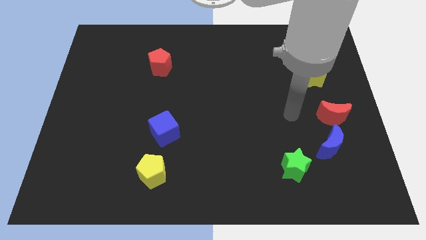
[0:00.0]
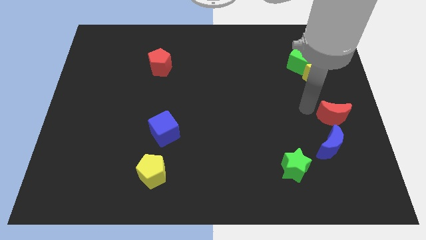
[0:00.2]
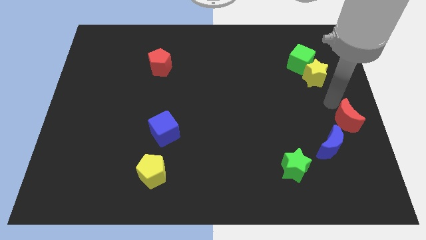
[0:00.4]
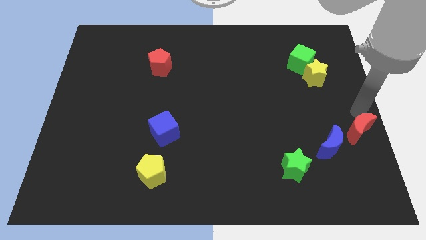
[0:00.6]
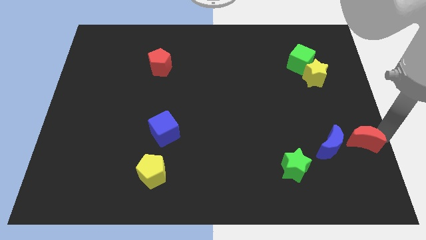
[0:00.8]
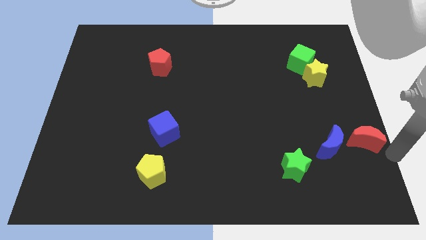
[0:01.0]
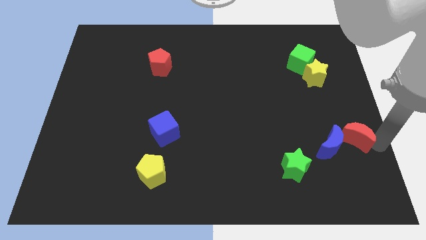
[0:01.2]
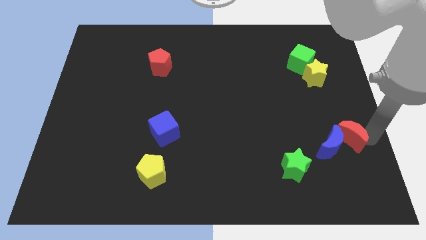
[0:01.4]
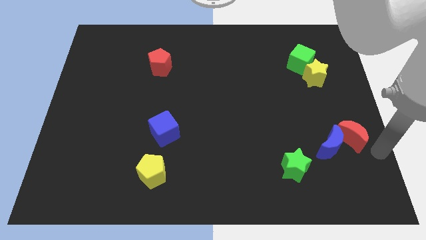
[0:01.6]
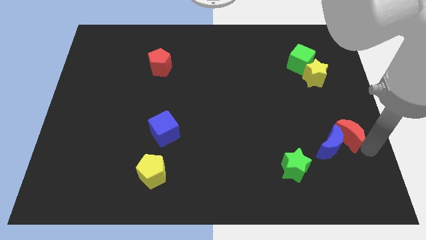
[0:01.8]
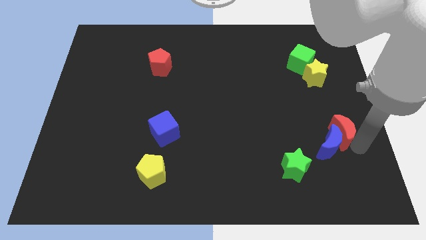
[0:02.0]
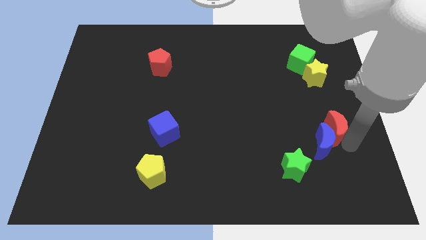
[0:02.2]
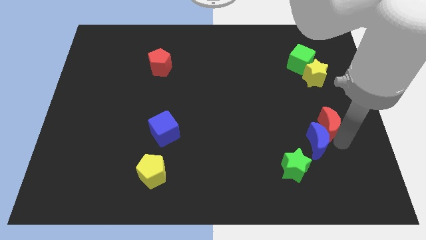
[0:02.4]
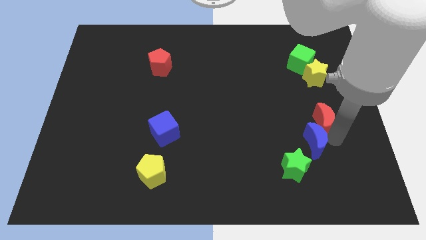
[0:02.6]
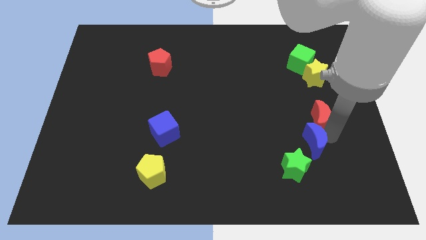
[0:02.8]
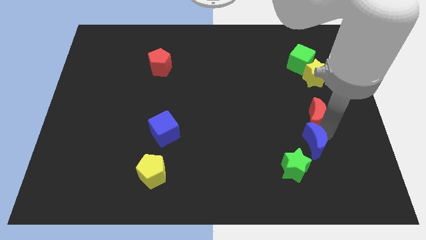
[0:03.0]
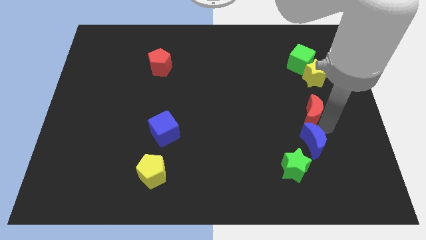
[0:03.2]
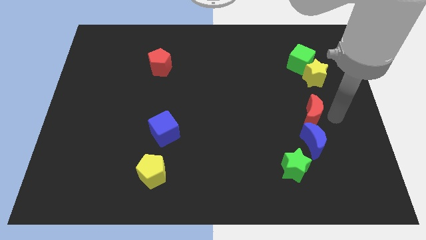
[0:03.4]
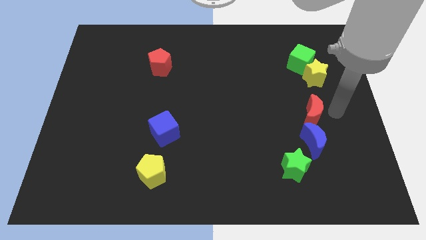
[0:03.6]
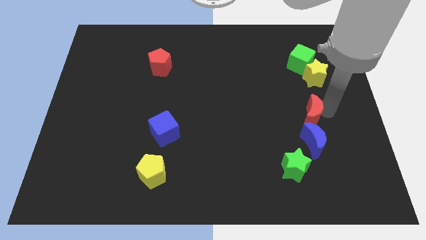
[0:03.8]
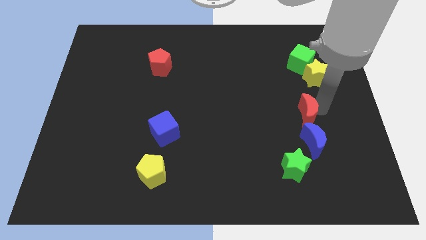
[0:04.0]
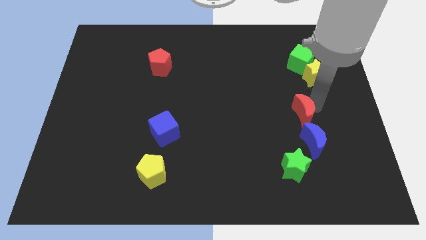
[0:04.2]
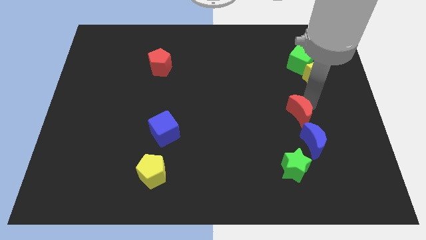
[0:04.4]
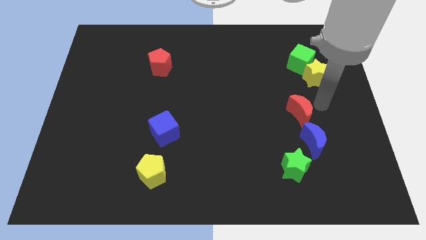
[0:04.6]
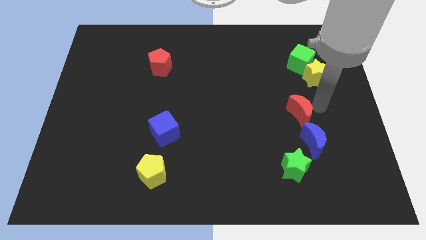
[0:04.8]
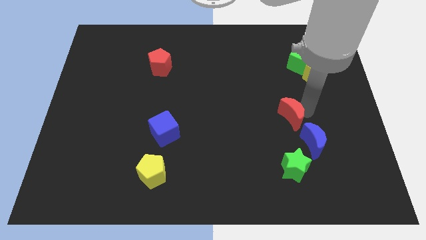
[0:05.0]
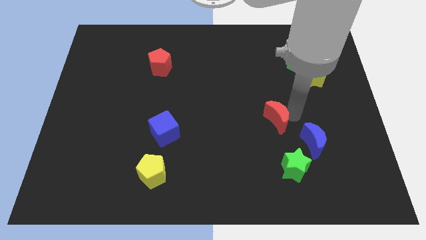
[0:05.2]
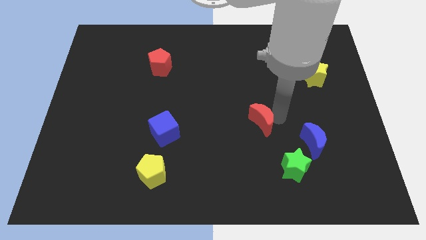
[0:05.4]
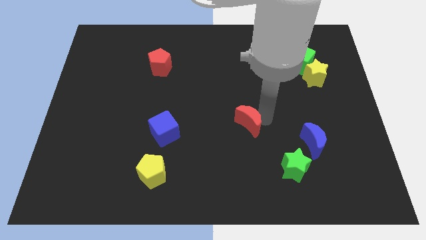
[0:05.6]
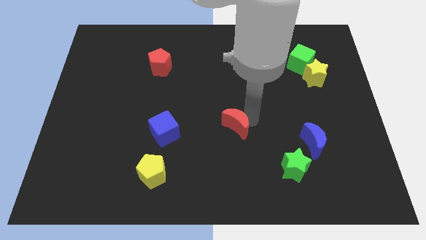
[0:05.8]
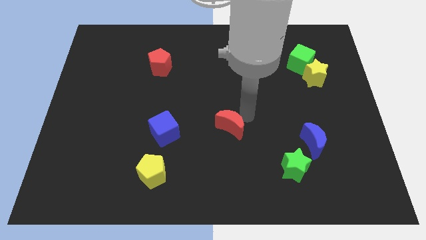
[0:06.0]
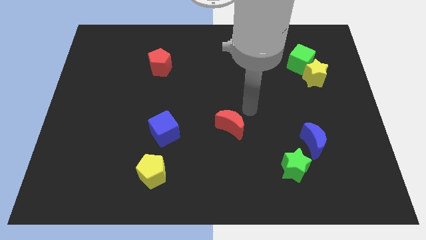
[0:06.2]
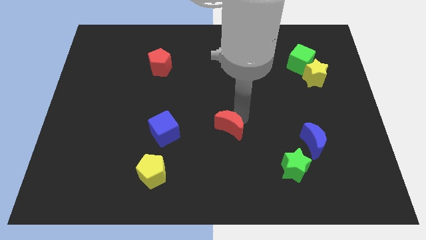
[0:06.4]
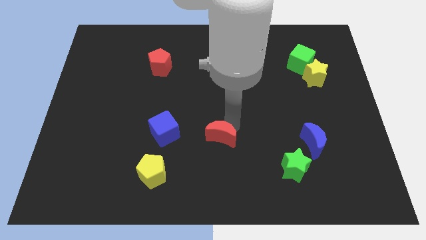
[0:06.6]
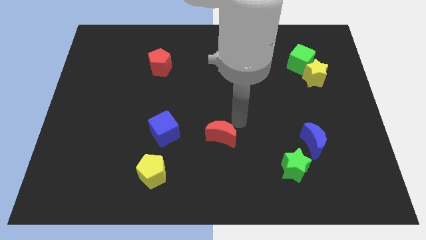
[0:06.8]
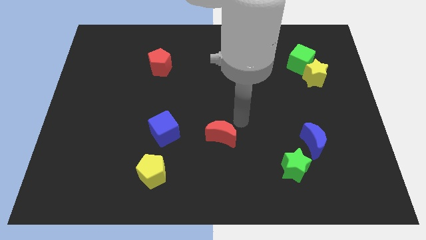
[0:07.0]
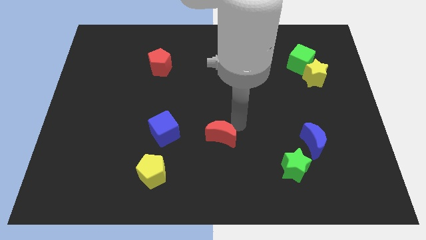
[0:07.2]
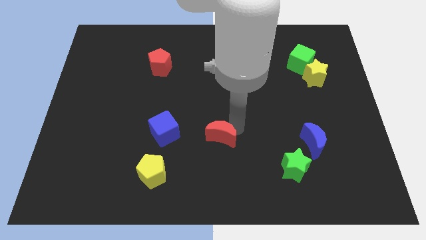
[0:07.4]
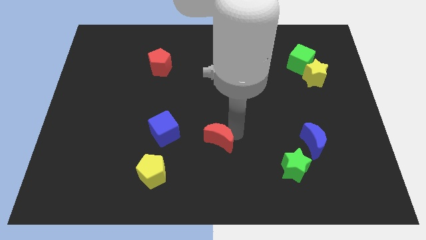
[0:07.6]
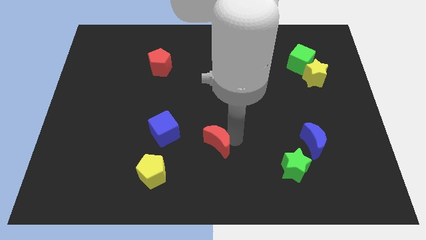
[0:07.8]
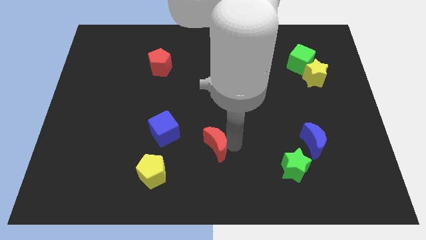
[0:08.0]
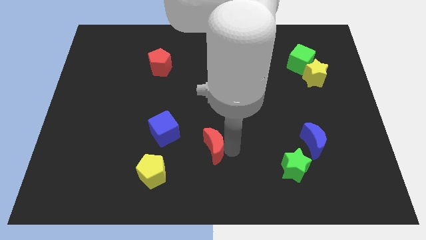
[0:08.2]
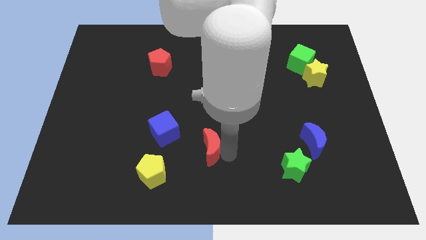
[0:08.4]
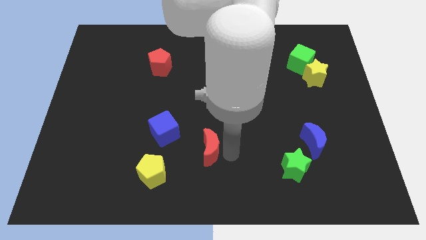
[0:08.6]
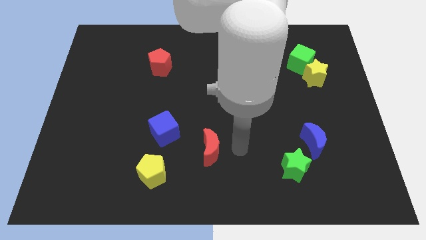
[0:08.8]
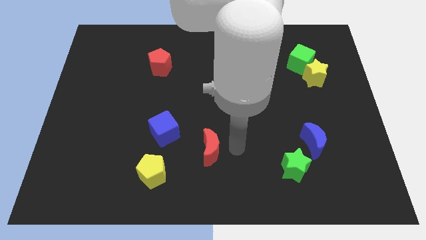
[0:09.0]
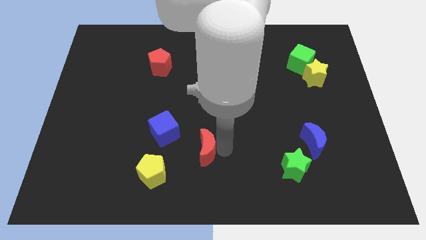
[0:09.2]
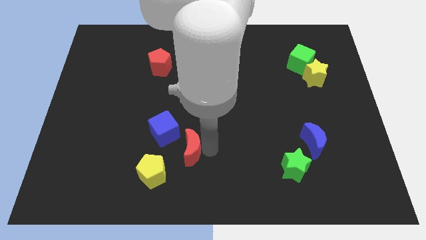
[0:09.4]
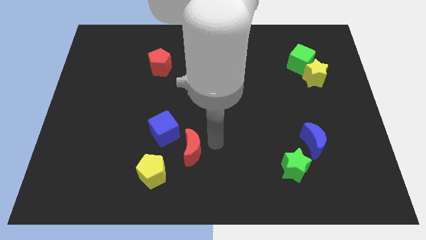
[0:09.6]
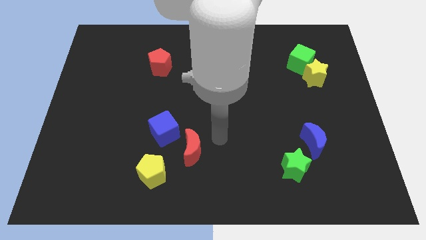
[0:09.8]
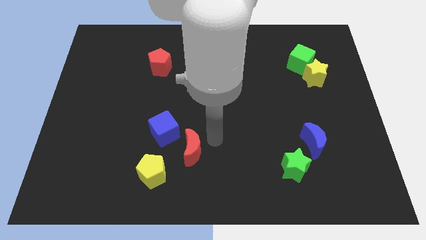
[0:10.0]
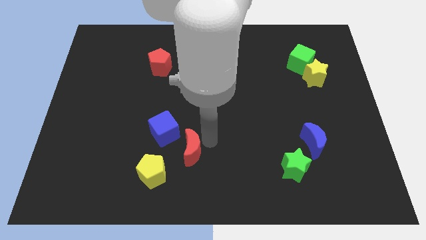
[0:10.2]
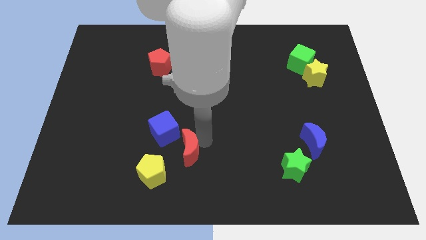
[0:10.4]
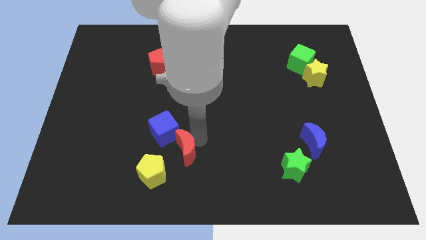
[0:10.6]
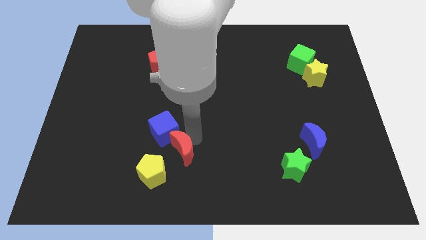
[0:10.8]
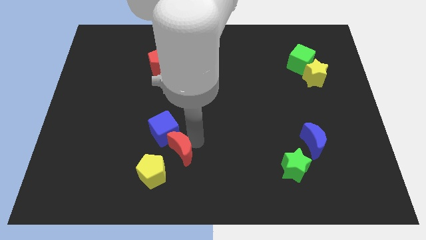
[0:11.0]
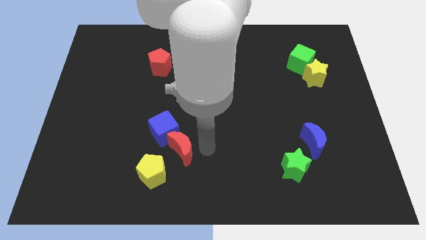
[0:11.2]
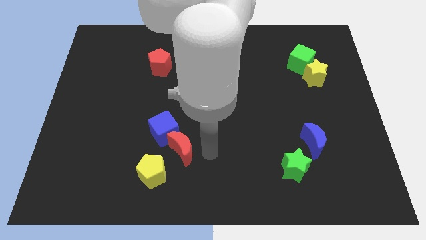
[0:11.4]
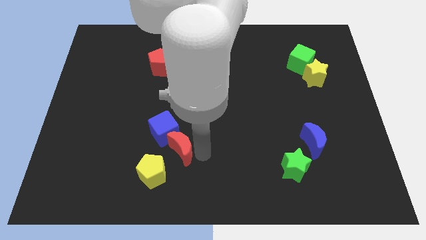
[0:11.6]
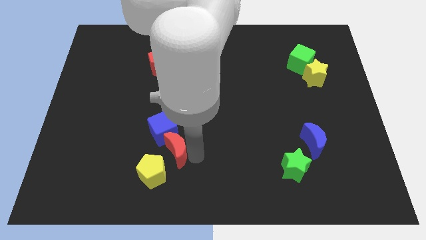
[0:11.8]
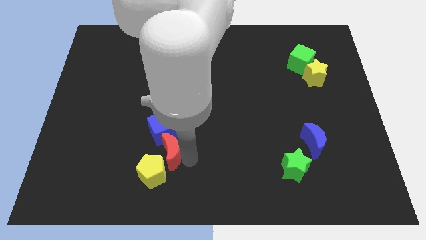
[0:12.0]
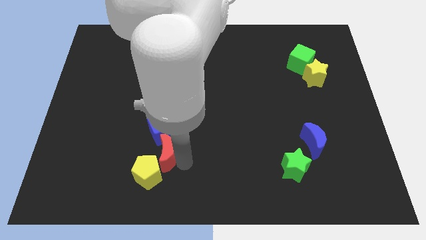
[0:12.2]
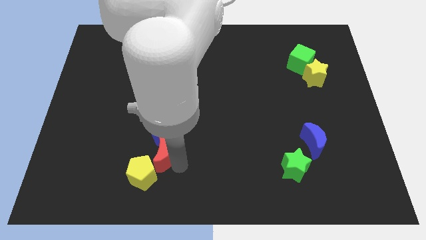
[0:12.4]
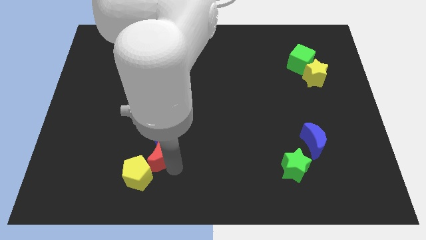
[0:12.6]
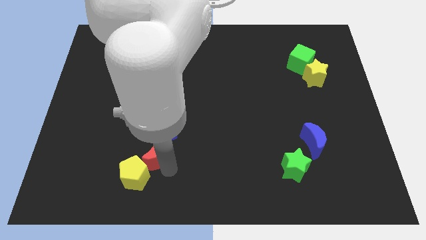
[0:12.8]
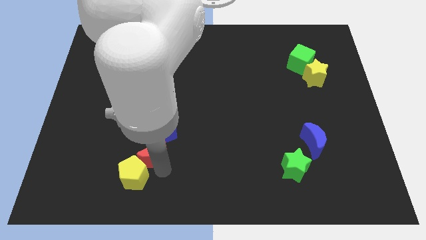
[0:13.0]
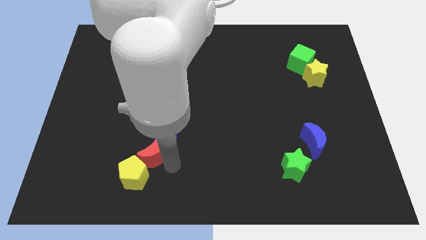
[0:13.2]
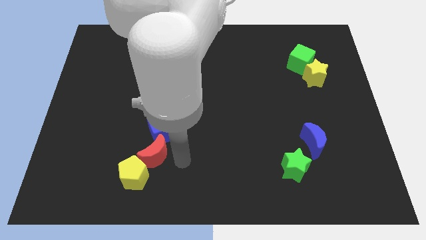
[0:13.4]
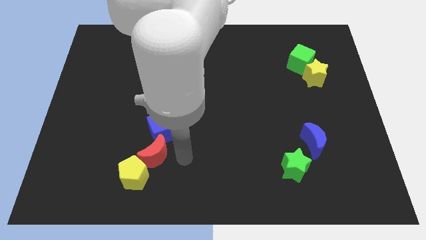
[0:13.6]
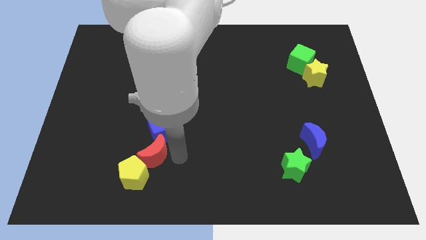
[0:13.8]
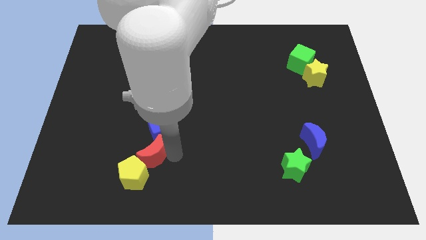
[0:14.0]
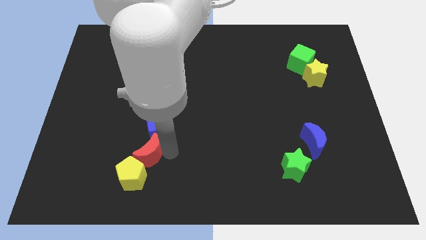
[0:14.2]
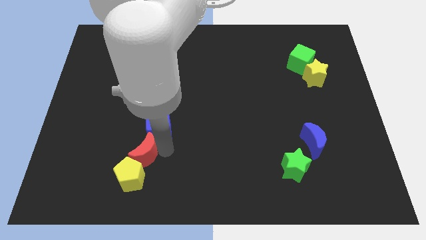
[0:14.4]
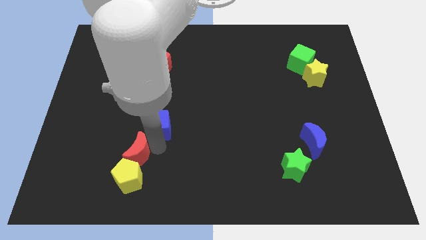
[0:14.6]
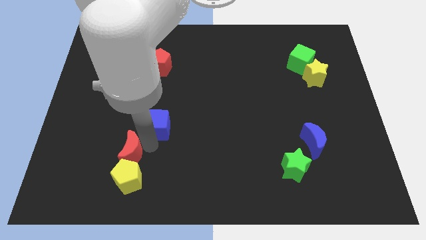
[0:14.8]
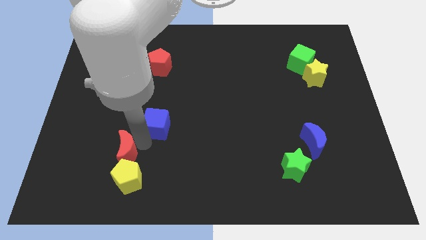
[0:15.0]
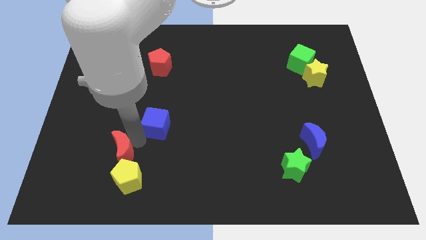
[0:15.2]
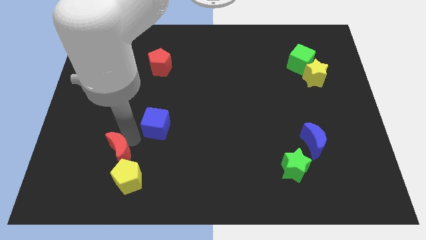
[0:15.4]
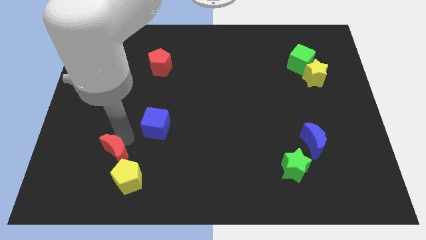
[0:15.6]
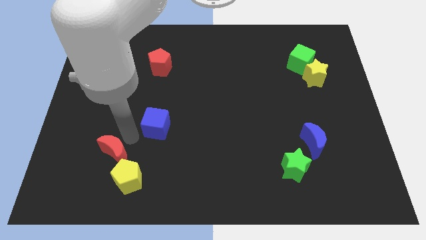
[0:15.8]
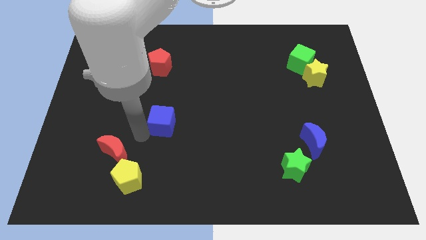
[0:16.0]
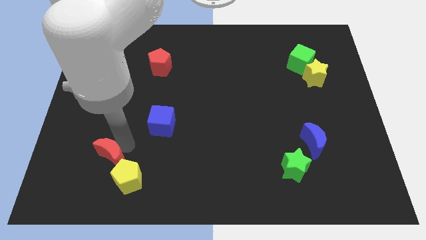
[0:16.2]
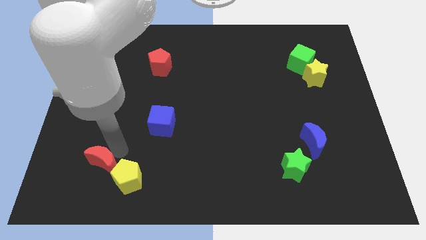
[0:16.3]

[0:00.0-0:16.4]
slide the red moon to the left of the yellow pentagon
